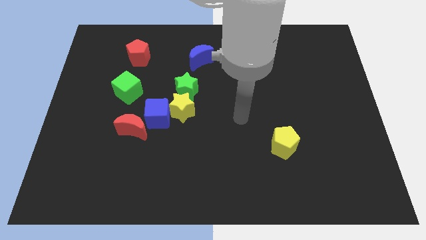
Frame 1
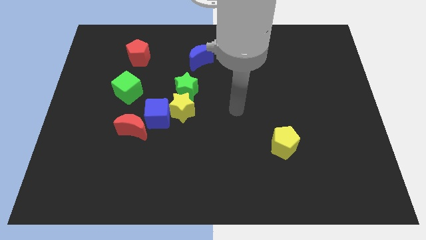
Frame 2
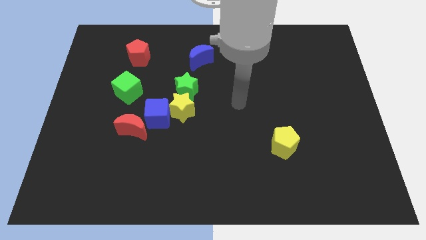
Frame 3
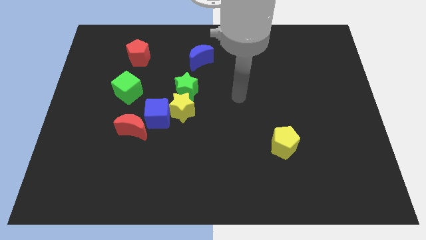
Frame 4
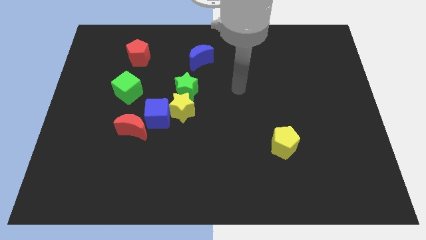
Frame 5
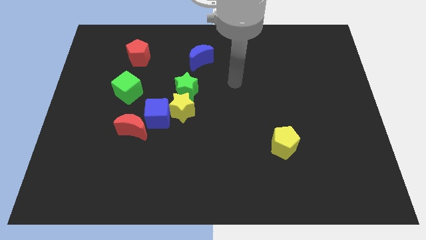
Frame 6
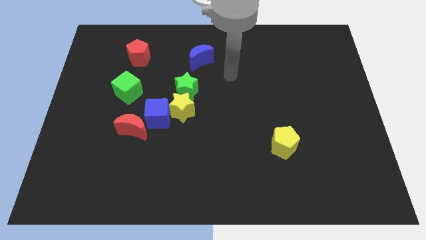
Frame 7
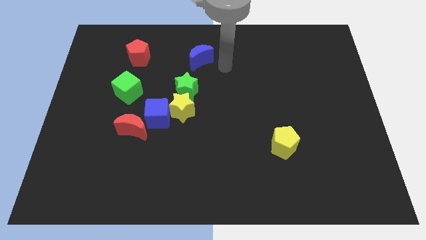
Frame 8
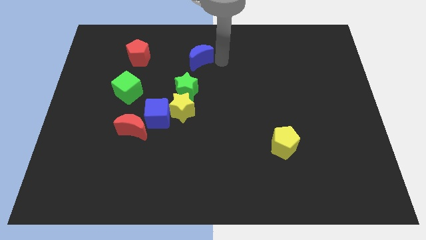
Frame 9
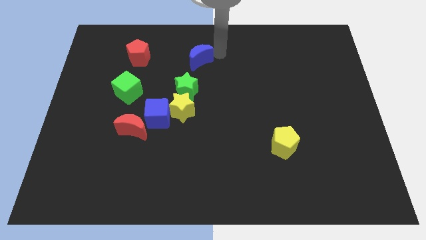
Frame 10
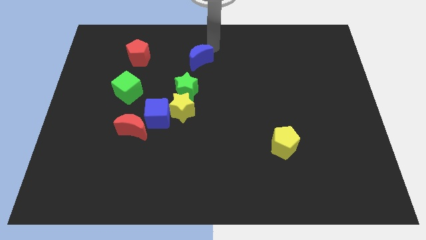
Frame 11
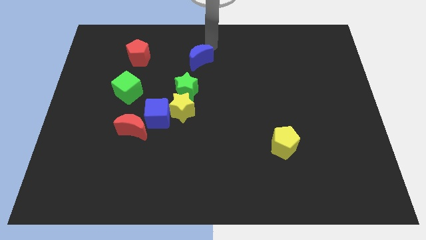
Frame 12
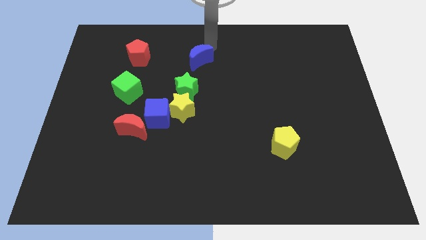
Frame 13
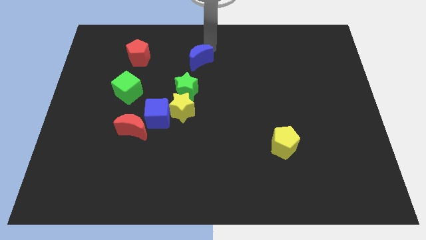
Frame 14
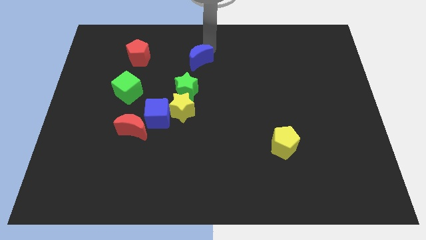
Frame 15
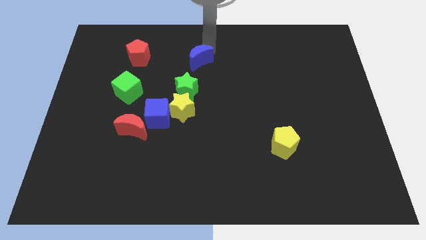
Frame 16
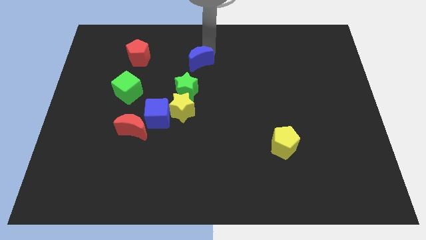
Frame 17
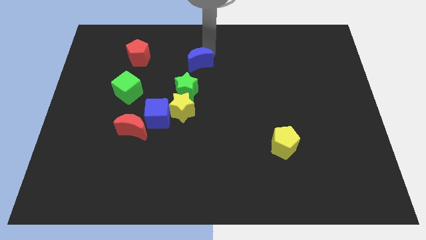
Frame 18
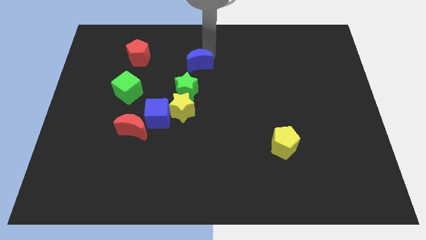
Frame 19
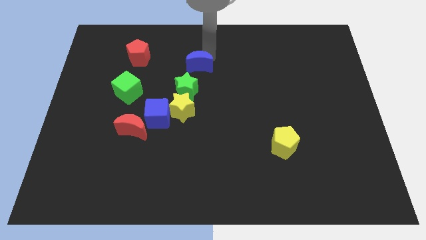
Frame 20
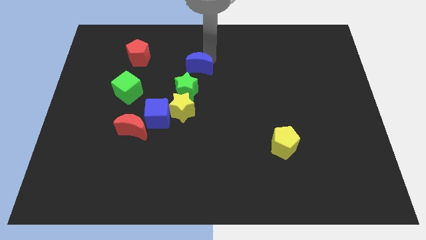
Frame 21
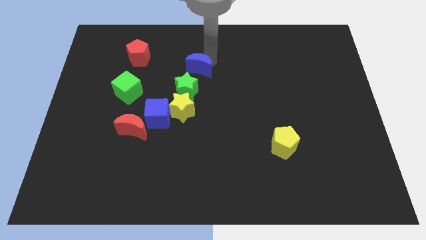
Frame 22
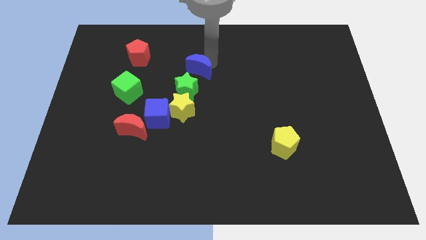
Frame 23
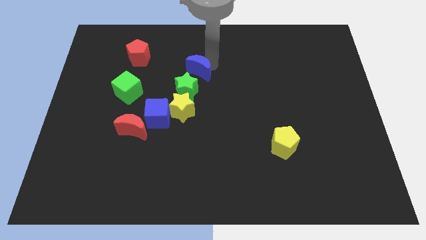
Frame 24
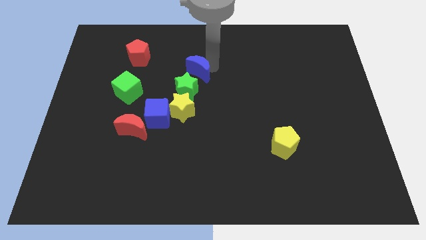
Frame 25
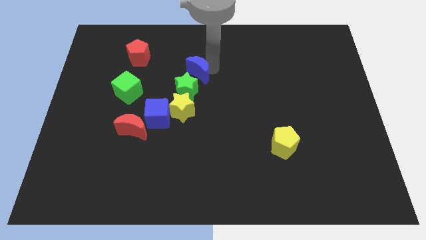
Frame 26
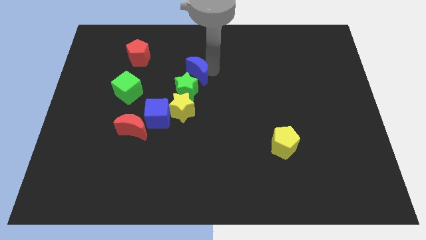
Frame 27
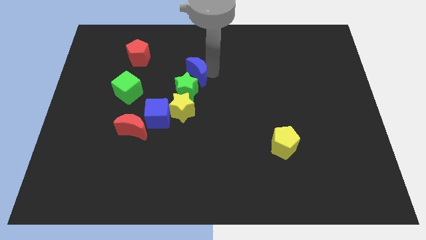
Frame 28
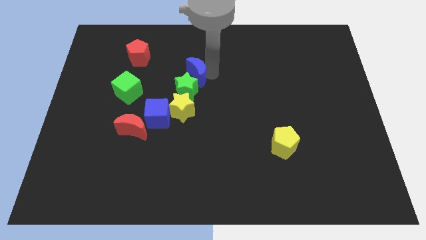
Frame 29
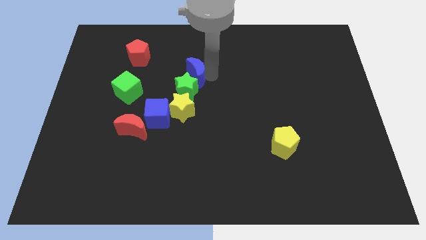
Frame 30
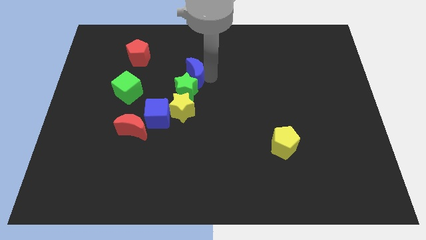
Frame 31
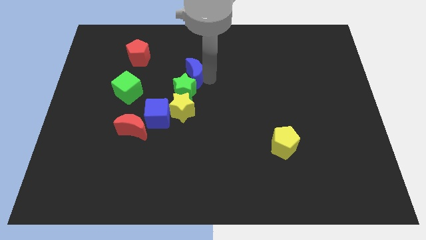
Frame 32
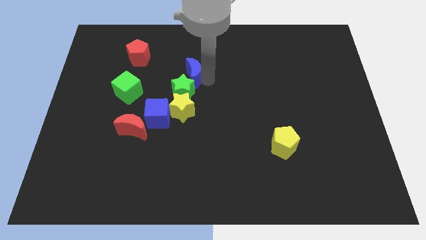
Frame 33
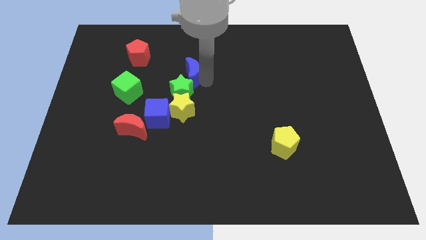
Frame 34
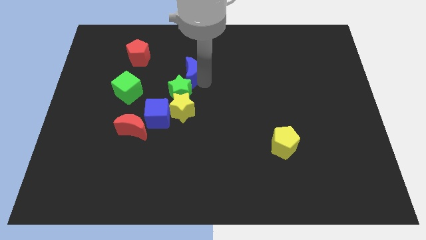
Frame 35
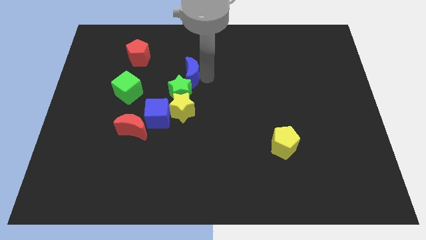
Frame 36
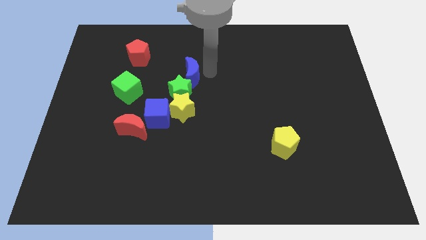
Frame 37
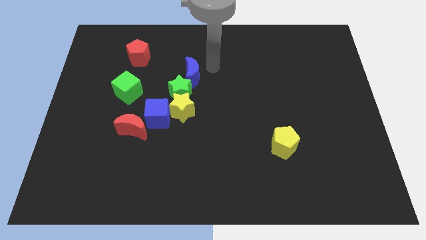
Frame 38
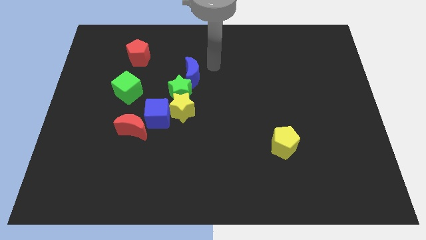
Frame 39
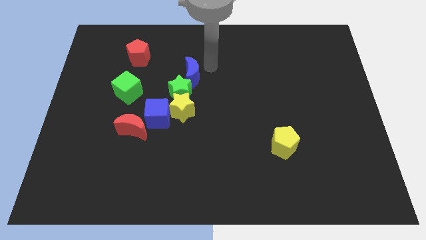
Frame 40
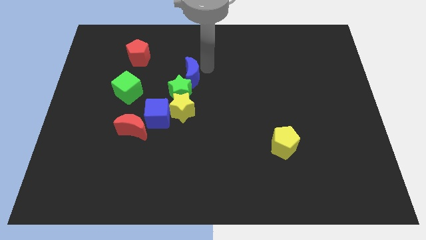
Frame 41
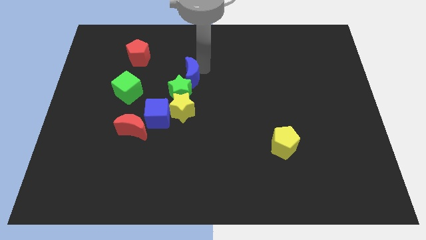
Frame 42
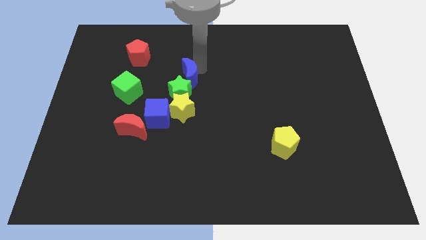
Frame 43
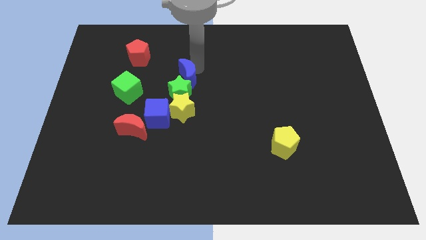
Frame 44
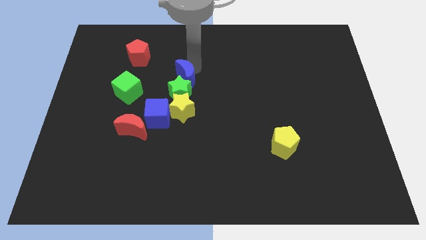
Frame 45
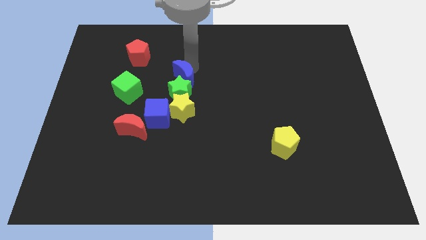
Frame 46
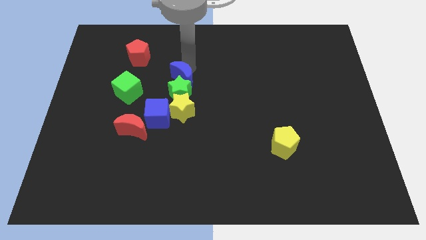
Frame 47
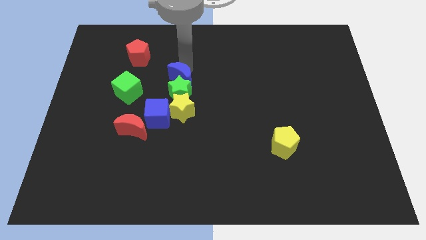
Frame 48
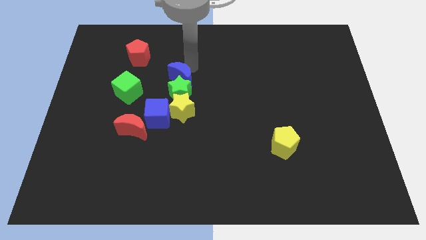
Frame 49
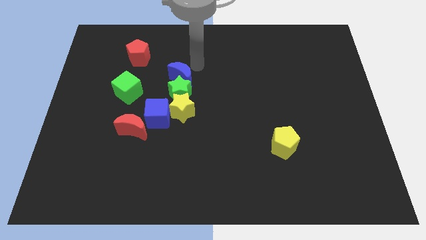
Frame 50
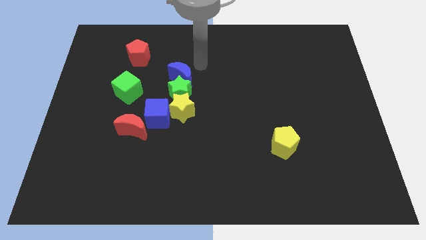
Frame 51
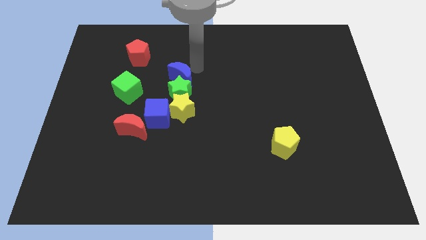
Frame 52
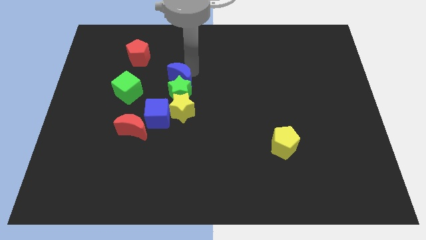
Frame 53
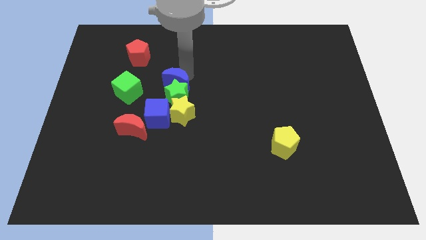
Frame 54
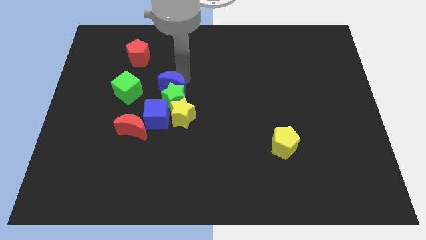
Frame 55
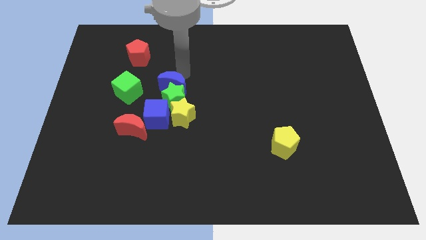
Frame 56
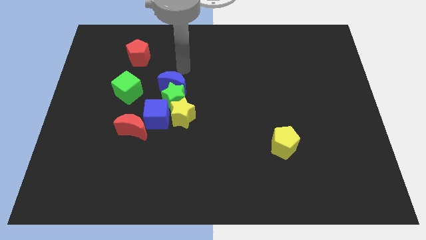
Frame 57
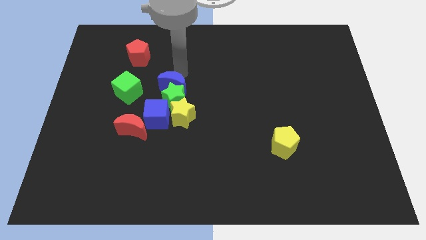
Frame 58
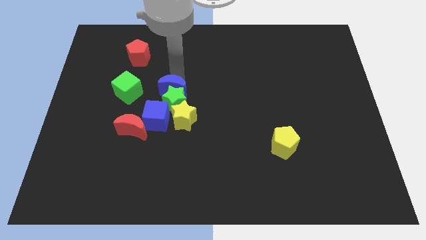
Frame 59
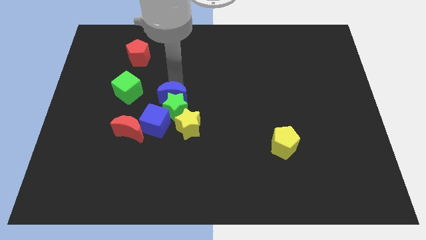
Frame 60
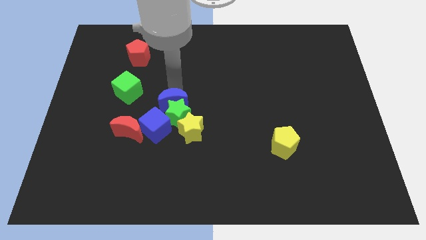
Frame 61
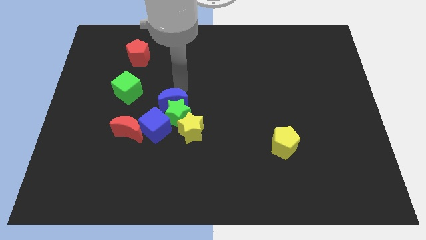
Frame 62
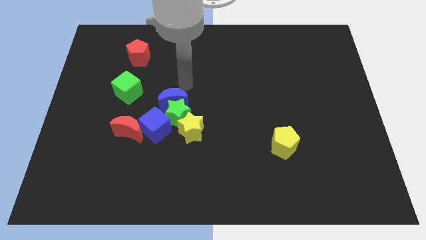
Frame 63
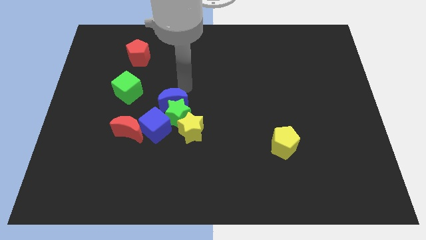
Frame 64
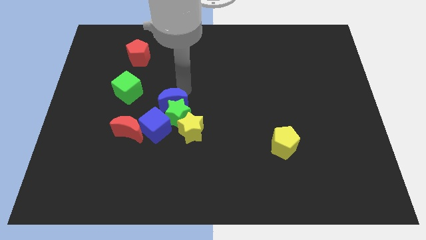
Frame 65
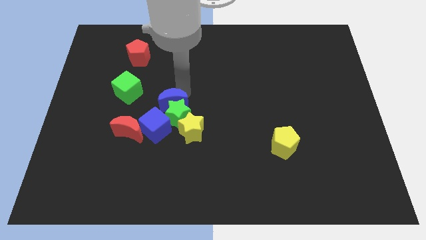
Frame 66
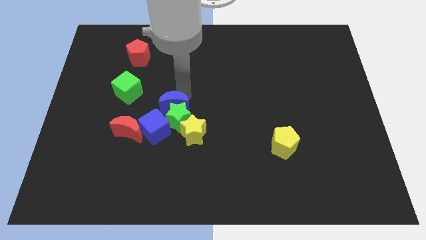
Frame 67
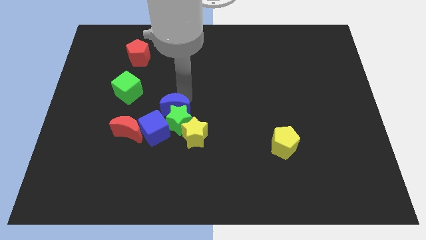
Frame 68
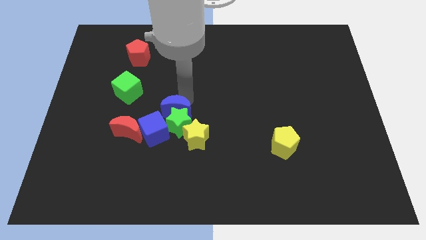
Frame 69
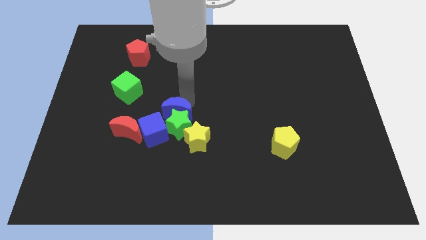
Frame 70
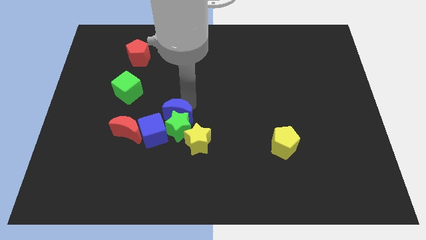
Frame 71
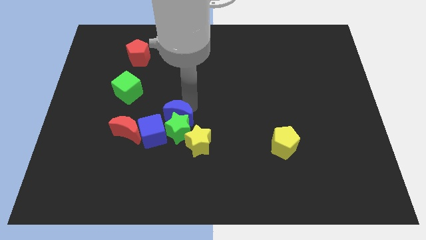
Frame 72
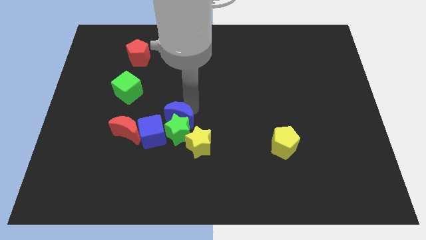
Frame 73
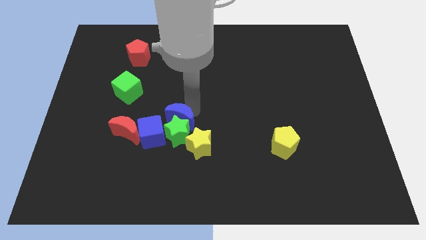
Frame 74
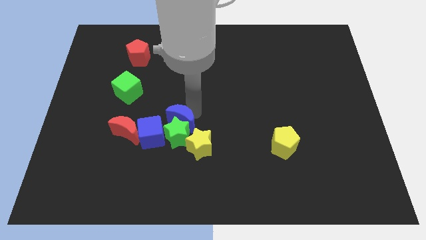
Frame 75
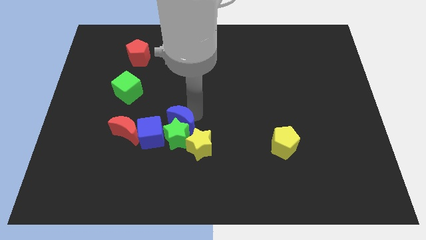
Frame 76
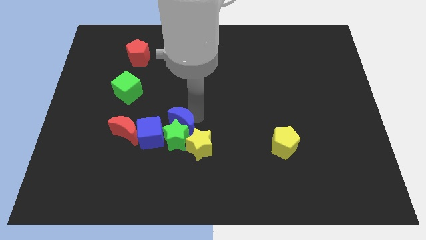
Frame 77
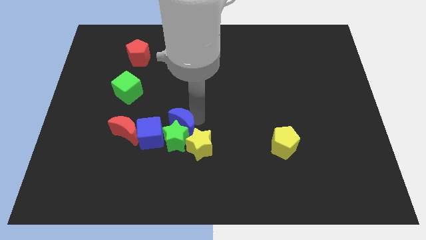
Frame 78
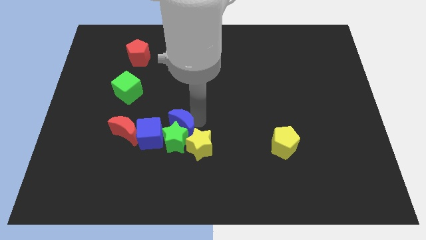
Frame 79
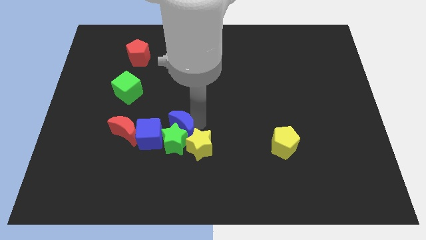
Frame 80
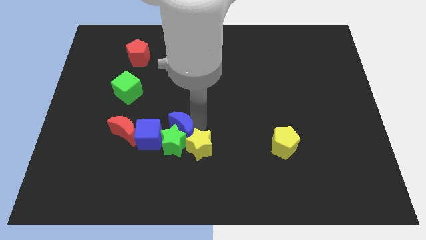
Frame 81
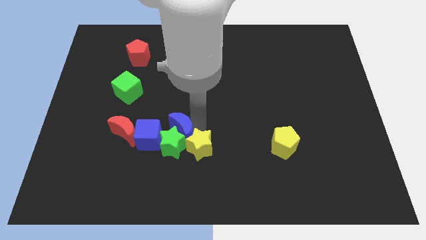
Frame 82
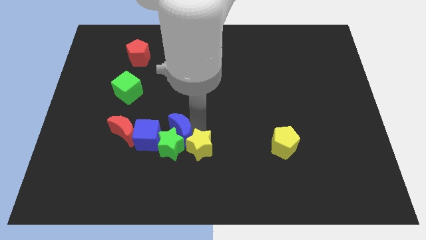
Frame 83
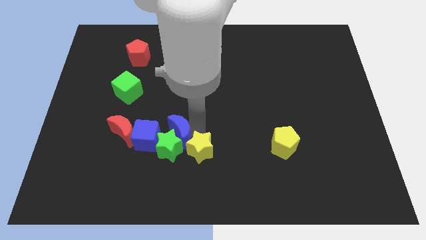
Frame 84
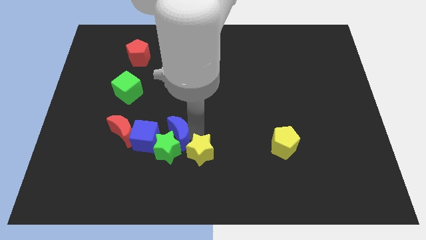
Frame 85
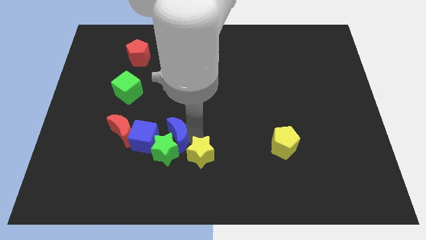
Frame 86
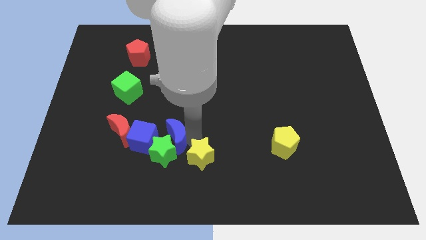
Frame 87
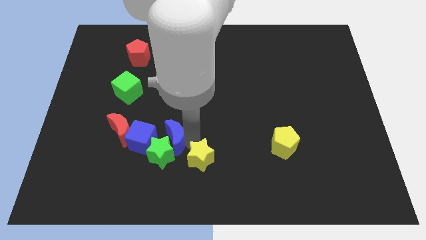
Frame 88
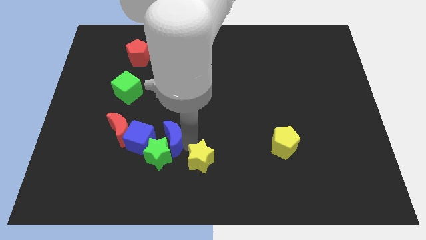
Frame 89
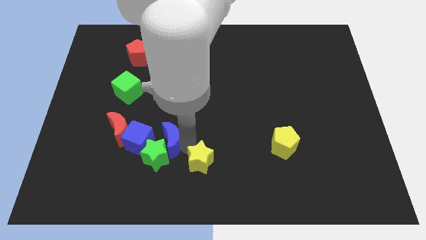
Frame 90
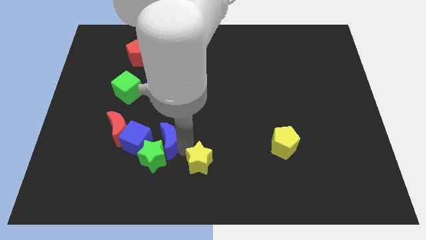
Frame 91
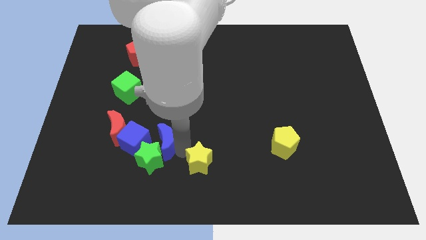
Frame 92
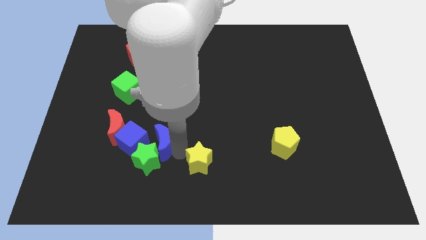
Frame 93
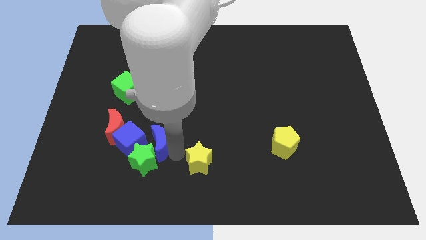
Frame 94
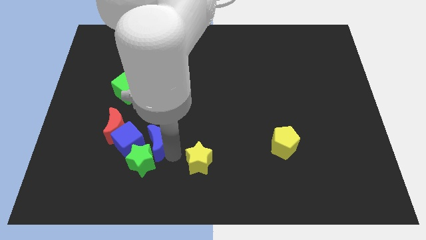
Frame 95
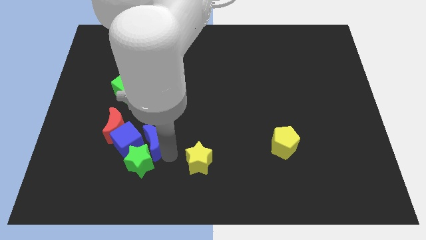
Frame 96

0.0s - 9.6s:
slide the blue moon towards the blue cube
